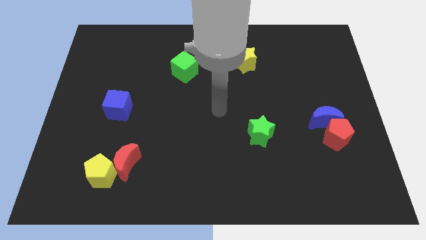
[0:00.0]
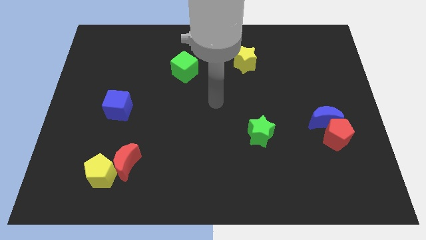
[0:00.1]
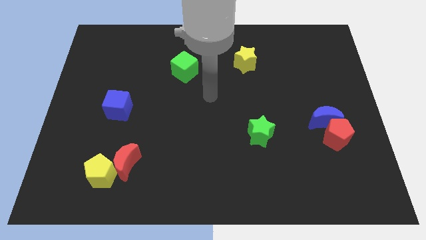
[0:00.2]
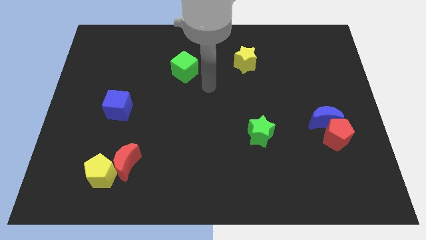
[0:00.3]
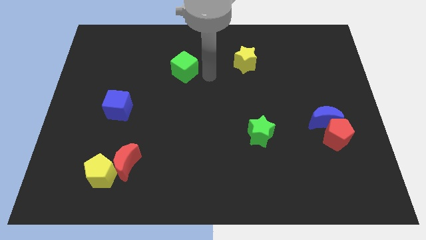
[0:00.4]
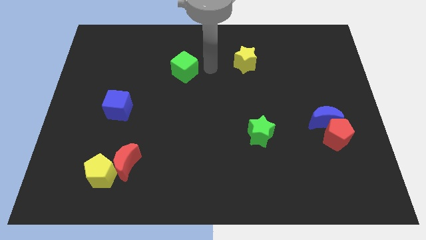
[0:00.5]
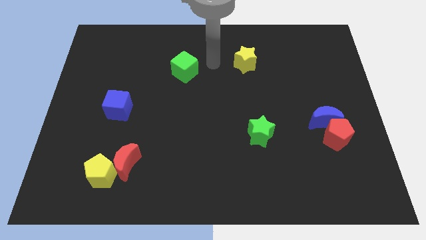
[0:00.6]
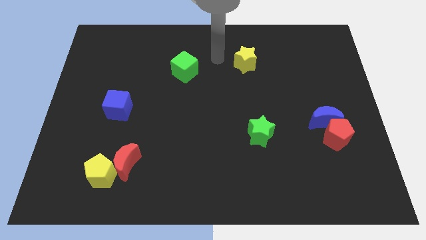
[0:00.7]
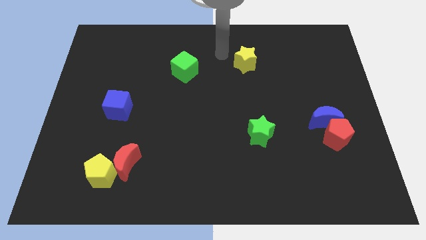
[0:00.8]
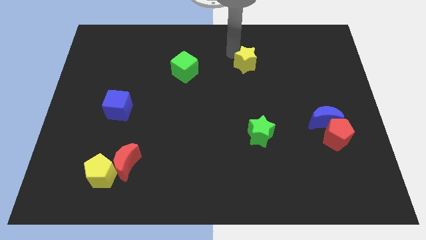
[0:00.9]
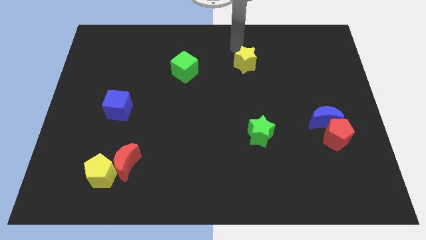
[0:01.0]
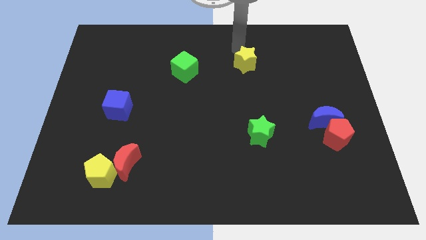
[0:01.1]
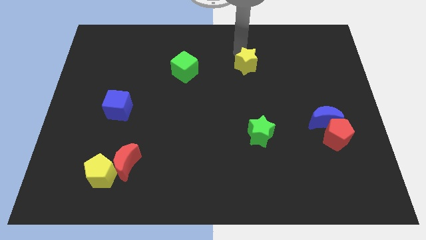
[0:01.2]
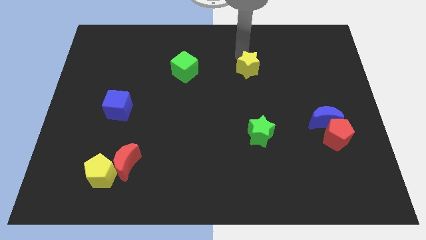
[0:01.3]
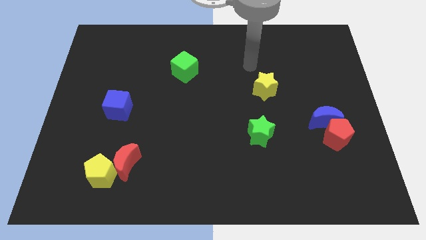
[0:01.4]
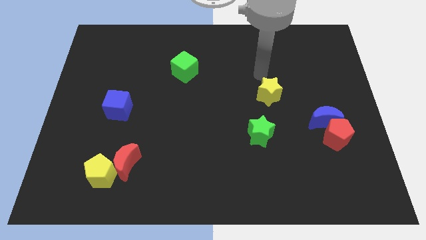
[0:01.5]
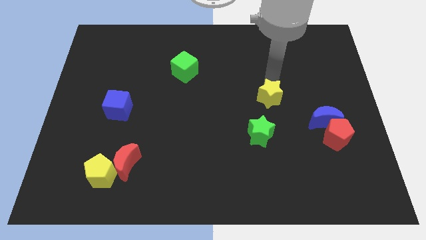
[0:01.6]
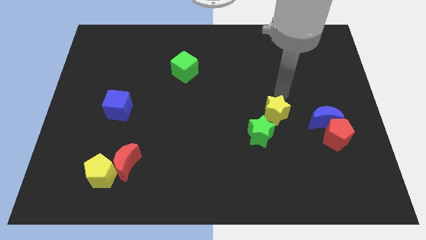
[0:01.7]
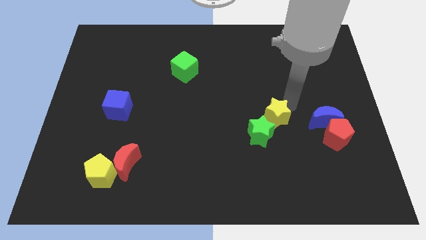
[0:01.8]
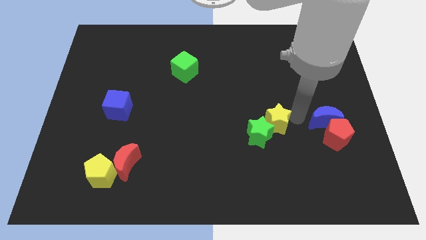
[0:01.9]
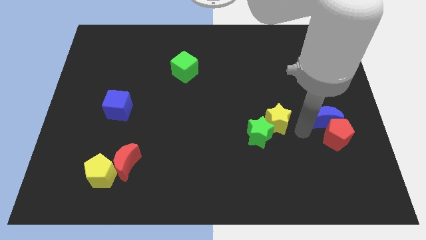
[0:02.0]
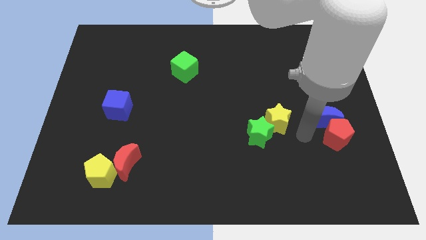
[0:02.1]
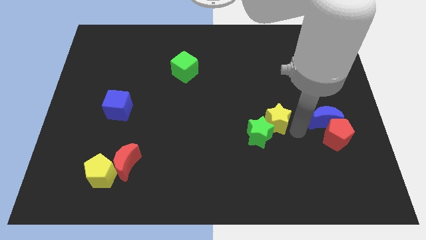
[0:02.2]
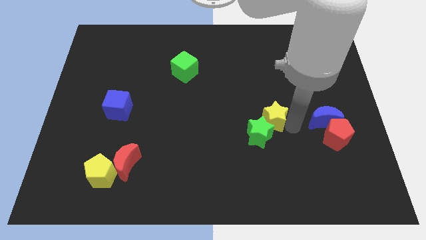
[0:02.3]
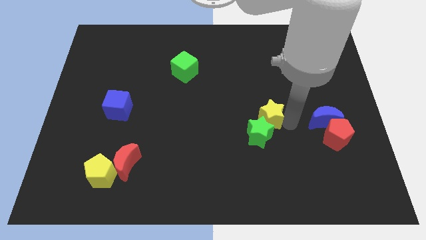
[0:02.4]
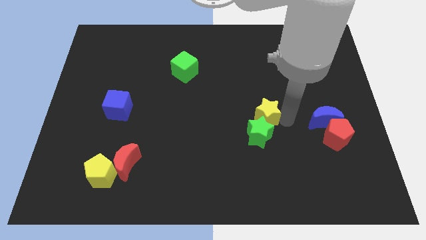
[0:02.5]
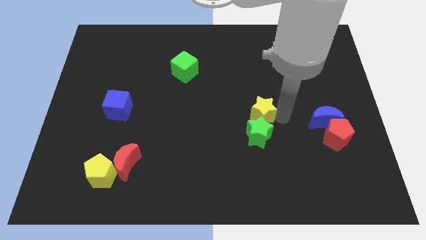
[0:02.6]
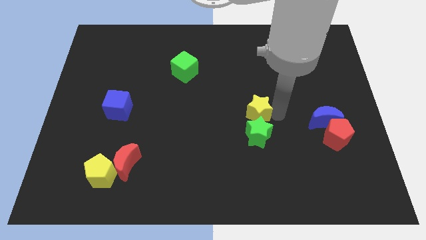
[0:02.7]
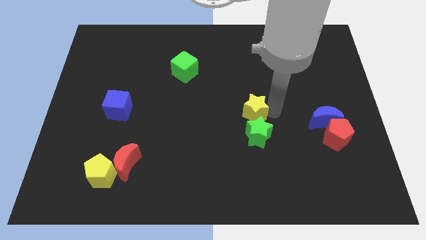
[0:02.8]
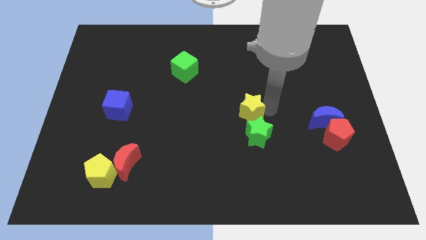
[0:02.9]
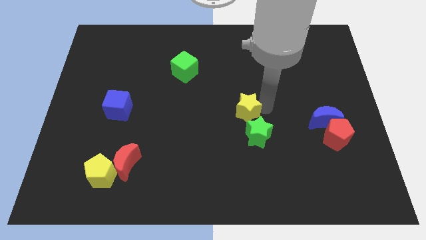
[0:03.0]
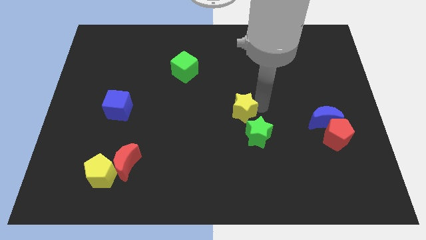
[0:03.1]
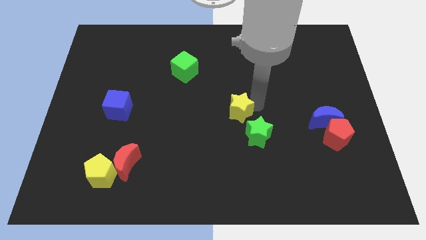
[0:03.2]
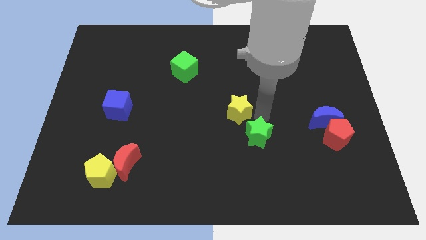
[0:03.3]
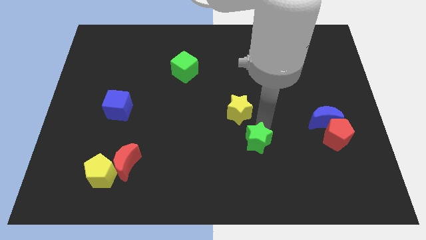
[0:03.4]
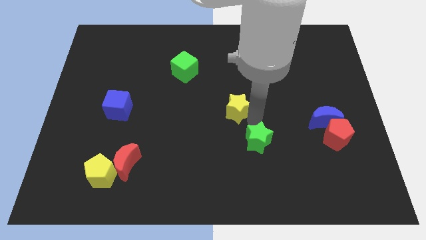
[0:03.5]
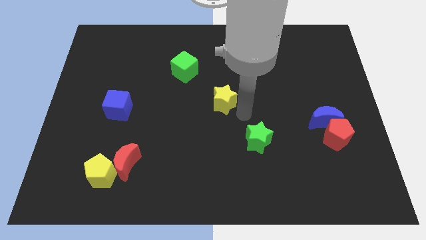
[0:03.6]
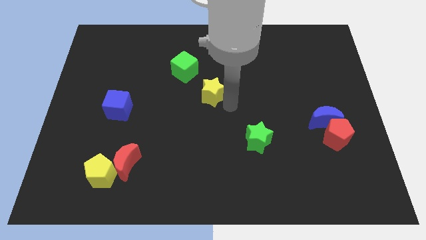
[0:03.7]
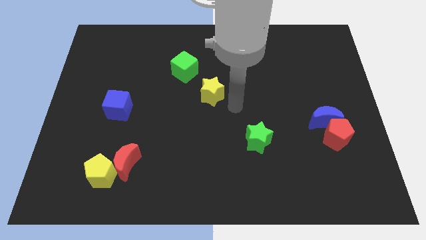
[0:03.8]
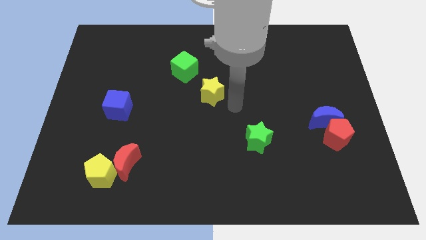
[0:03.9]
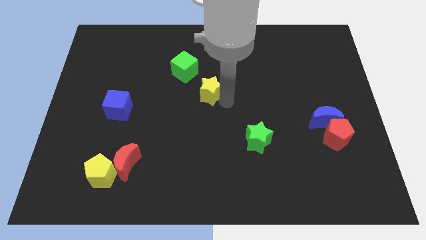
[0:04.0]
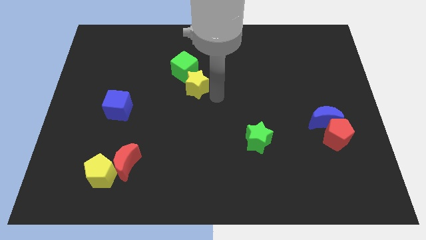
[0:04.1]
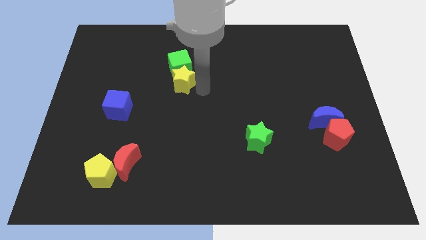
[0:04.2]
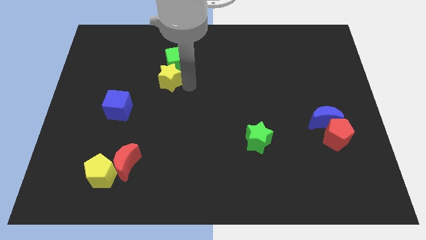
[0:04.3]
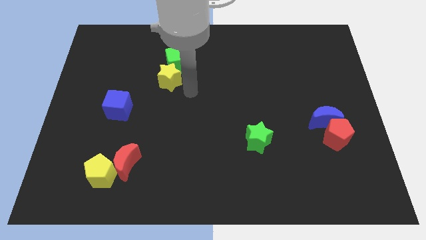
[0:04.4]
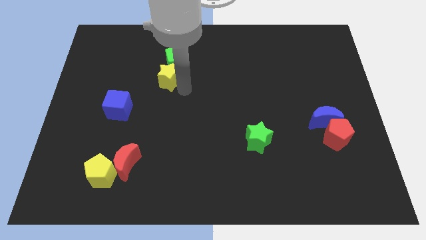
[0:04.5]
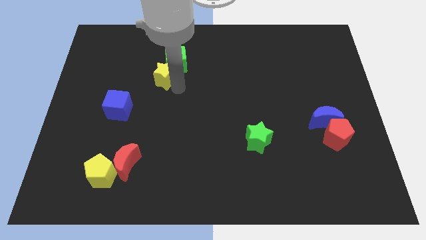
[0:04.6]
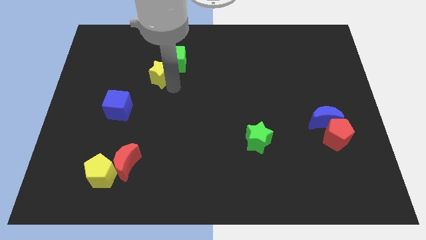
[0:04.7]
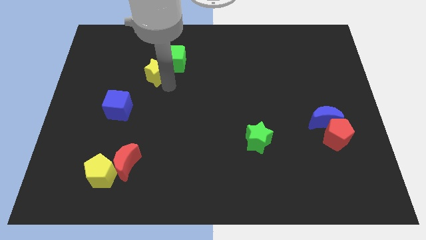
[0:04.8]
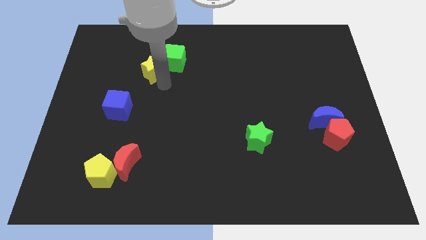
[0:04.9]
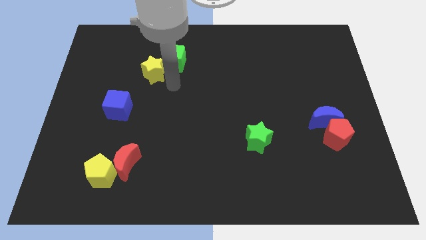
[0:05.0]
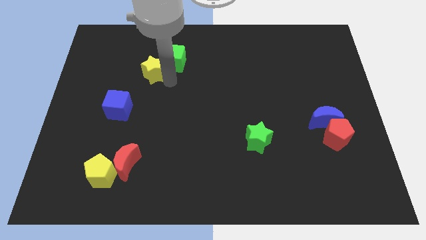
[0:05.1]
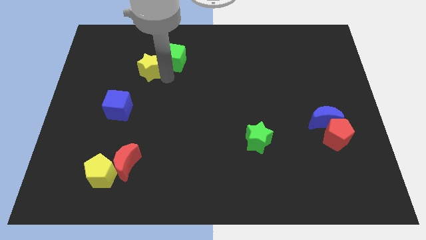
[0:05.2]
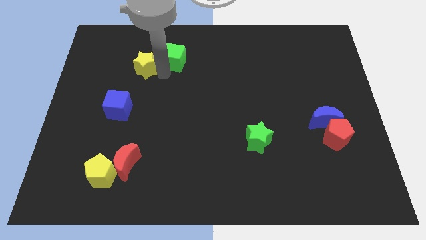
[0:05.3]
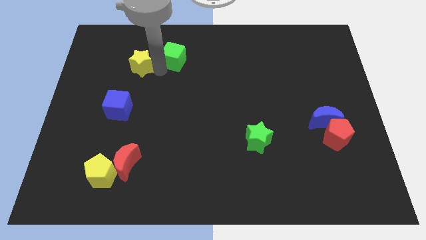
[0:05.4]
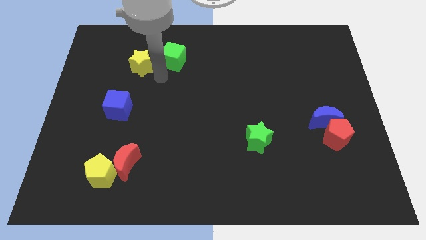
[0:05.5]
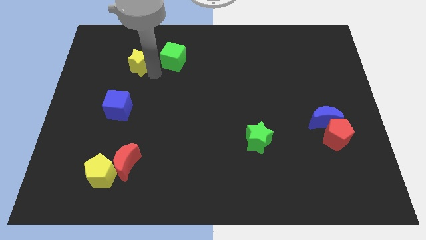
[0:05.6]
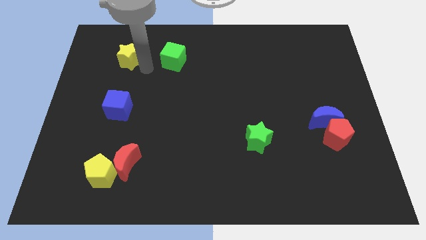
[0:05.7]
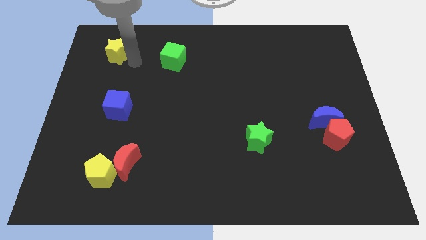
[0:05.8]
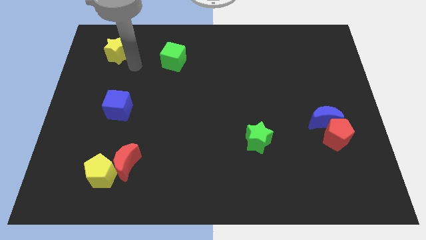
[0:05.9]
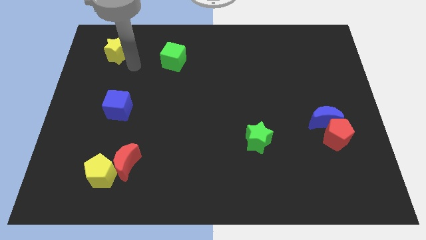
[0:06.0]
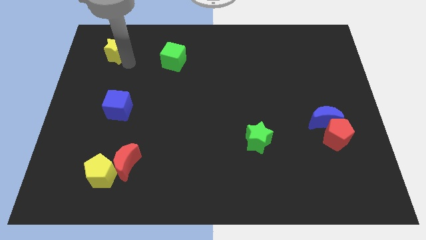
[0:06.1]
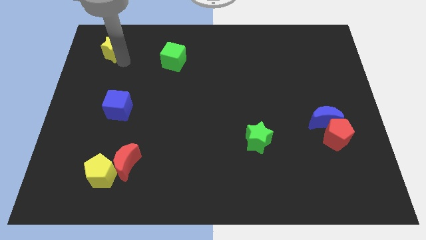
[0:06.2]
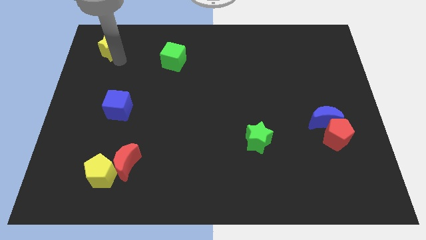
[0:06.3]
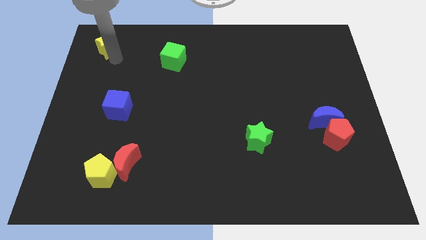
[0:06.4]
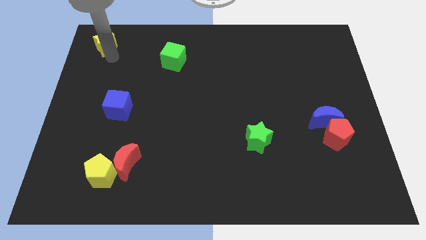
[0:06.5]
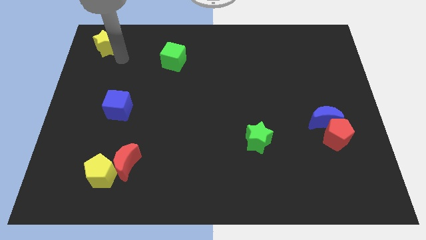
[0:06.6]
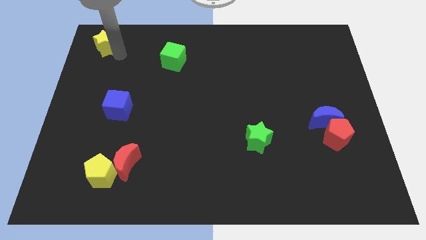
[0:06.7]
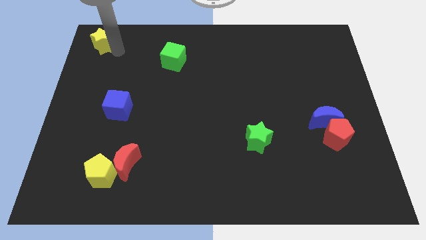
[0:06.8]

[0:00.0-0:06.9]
move the yellow star to the top left
